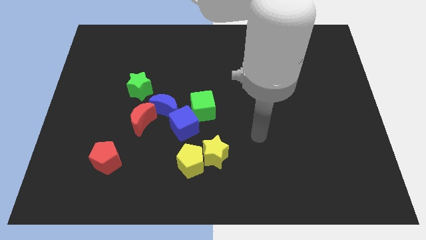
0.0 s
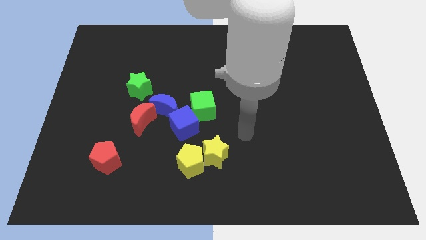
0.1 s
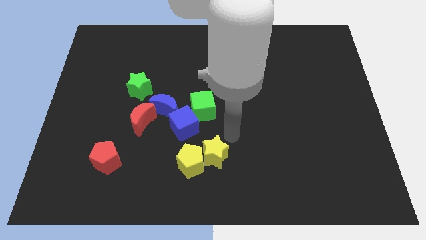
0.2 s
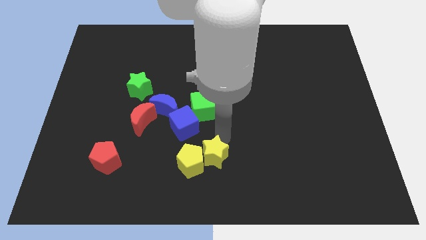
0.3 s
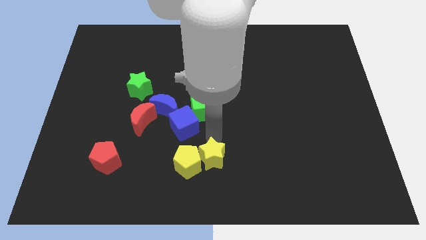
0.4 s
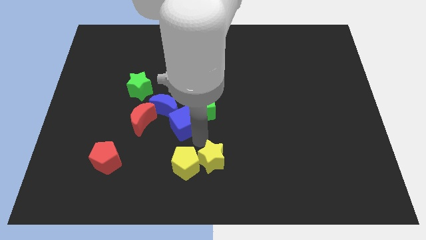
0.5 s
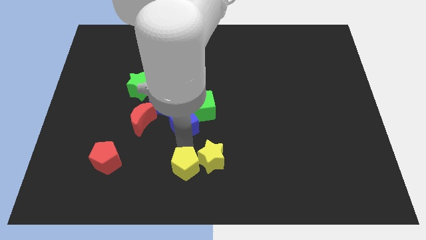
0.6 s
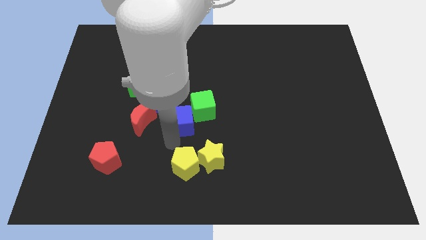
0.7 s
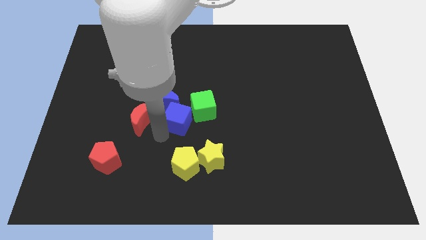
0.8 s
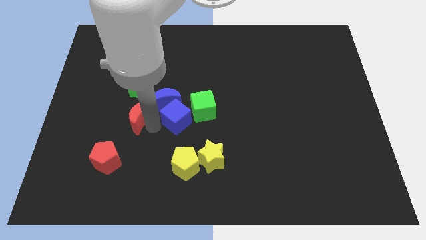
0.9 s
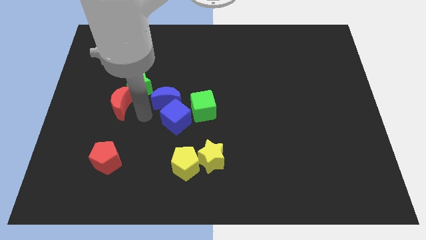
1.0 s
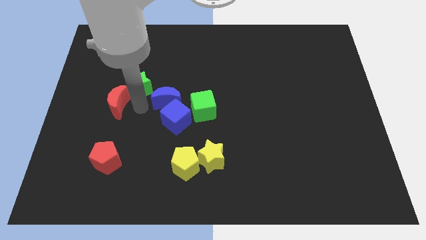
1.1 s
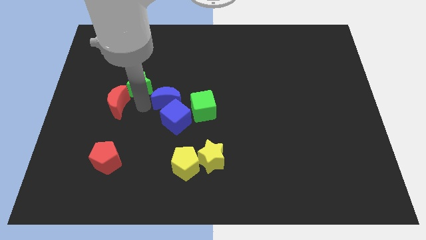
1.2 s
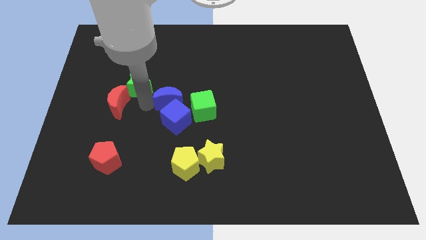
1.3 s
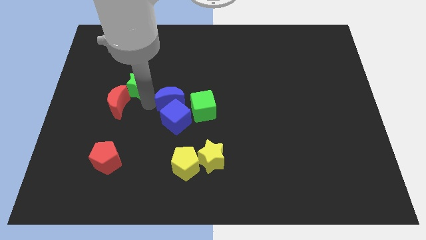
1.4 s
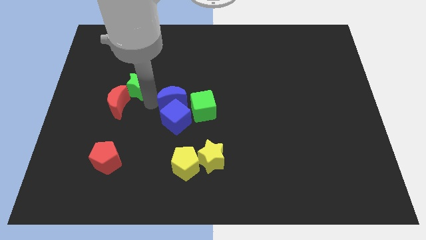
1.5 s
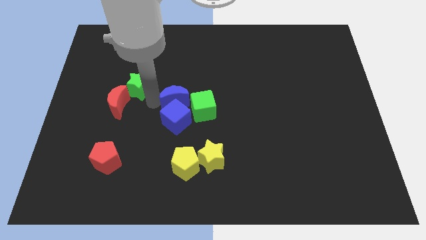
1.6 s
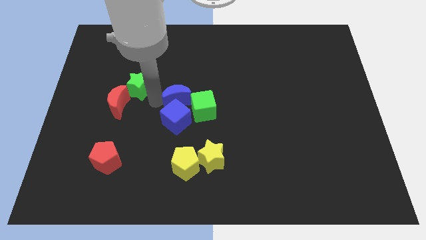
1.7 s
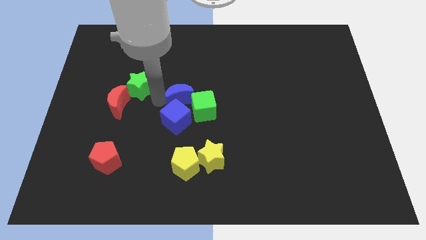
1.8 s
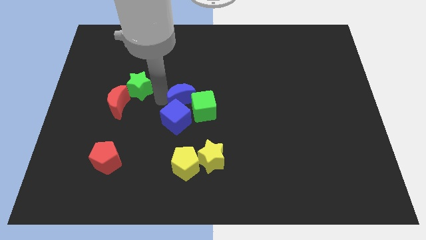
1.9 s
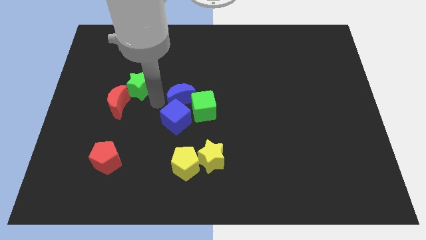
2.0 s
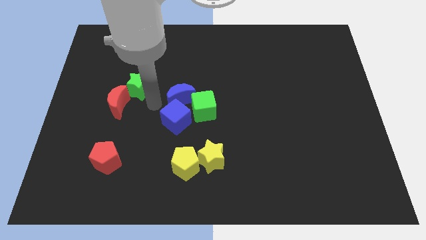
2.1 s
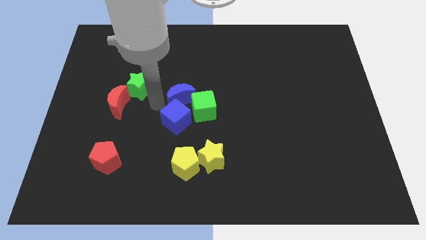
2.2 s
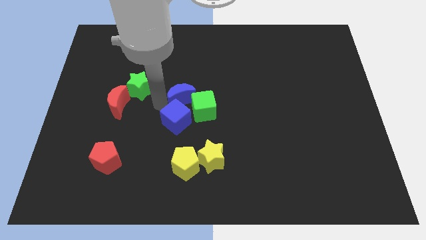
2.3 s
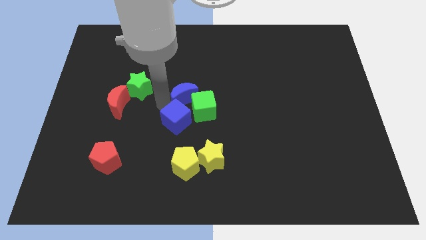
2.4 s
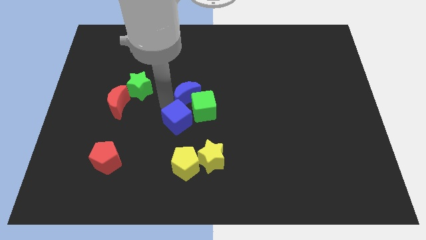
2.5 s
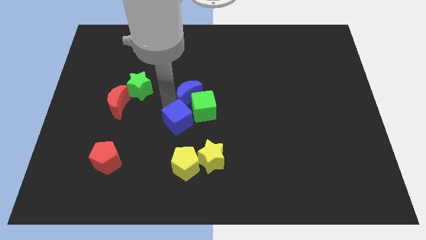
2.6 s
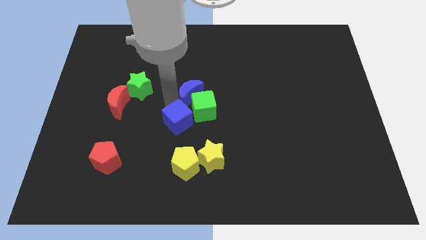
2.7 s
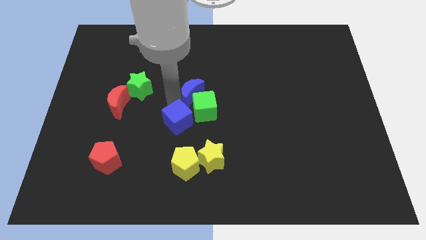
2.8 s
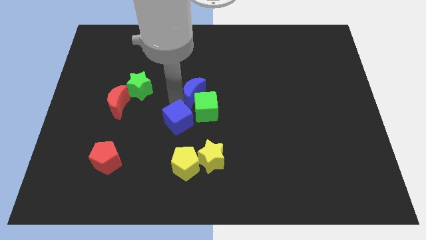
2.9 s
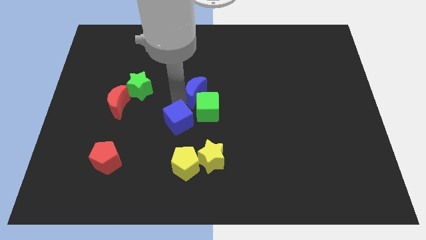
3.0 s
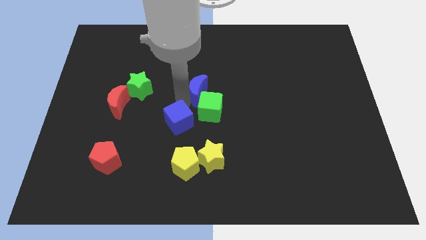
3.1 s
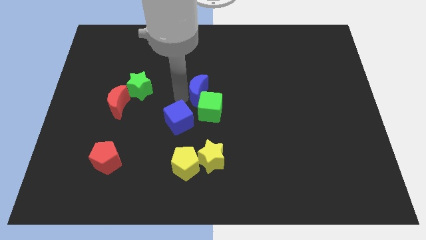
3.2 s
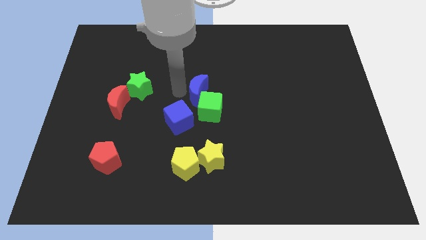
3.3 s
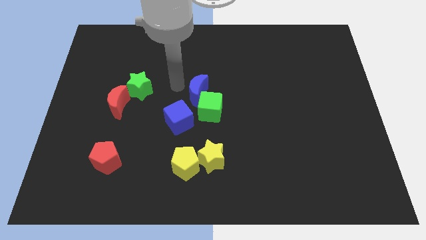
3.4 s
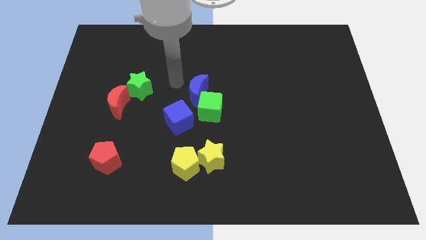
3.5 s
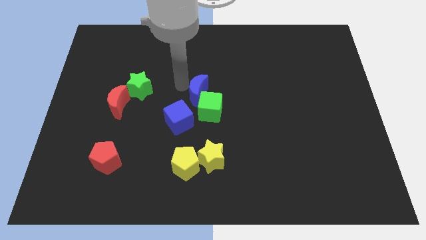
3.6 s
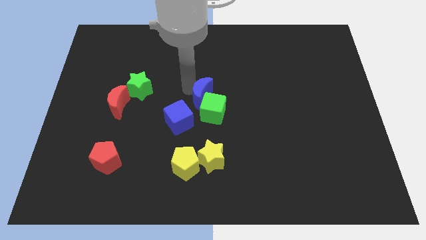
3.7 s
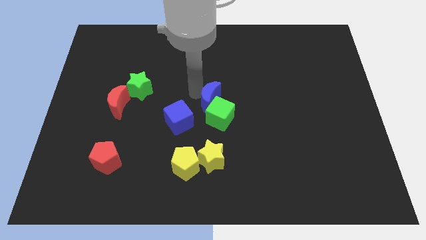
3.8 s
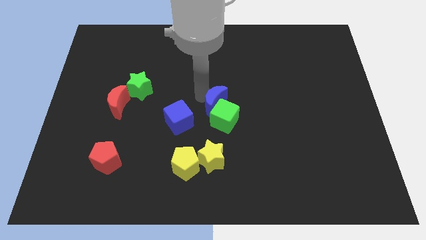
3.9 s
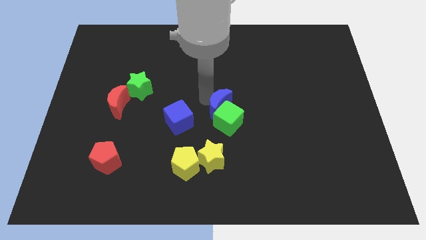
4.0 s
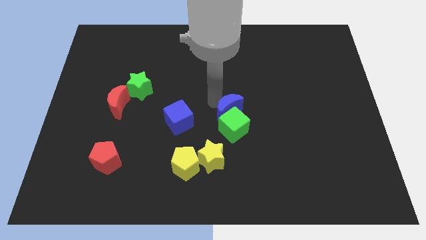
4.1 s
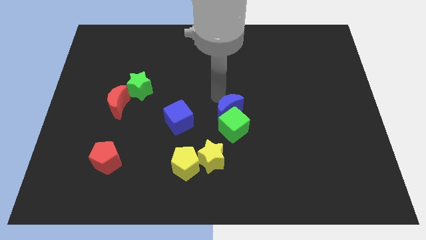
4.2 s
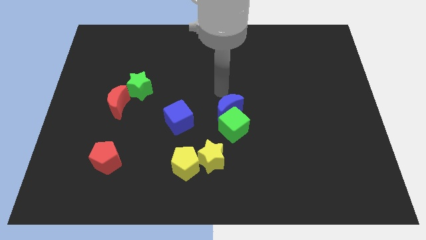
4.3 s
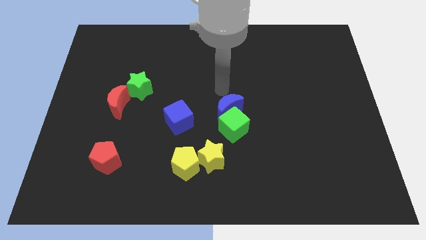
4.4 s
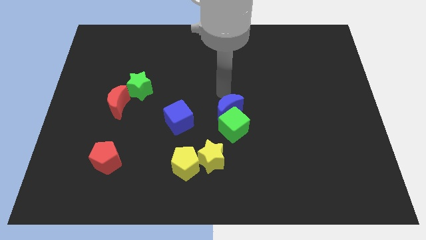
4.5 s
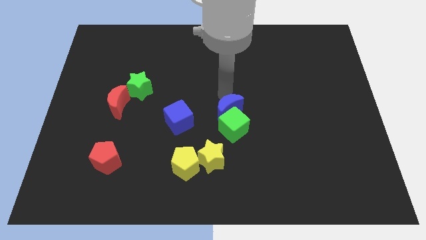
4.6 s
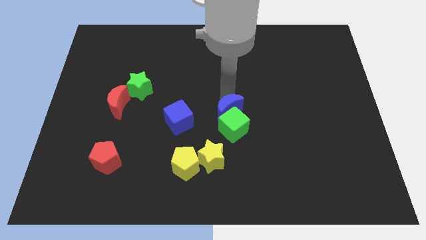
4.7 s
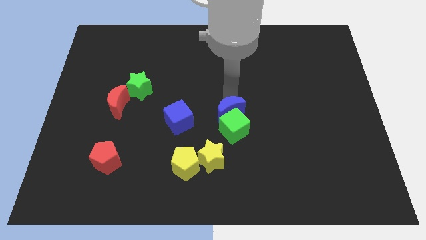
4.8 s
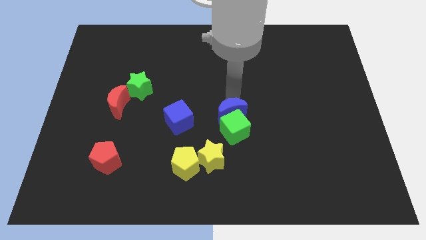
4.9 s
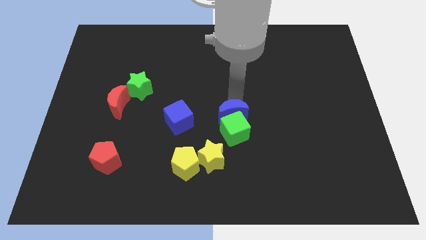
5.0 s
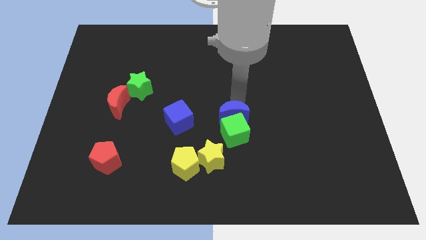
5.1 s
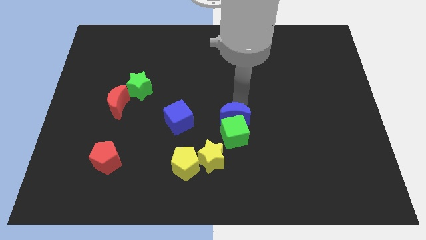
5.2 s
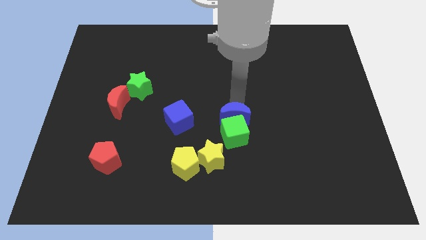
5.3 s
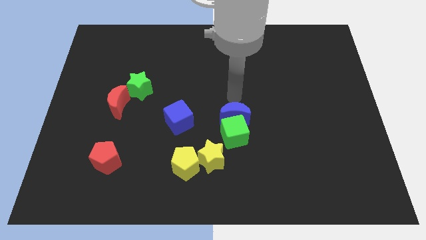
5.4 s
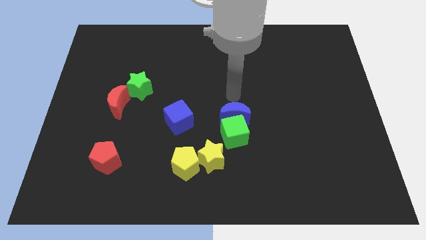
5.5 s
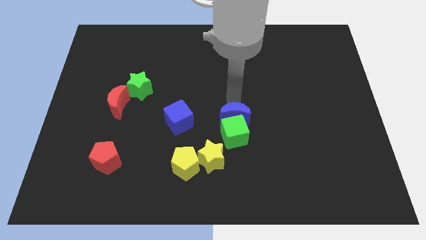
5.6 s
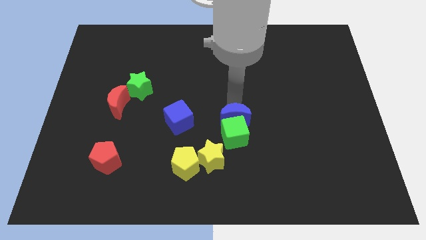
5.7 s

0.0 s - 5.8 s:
put the blue moon diagonally up and to the right of the yellow star

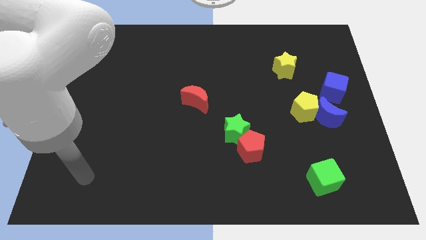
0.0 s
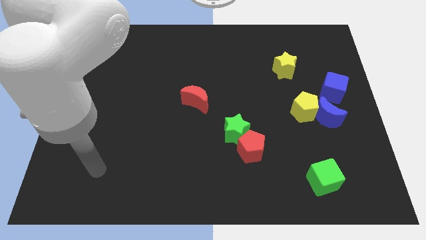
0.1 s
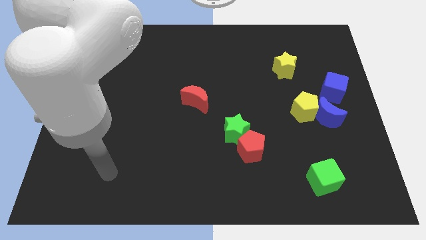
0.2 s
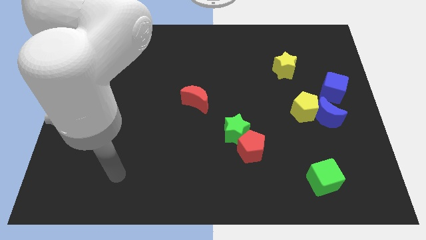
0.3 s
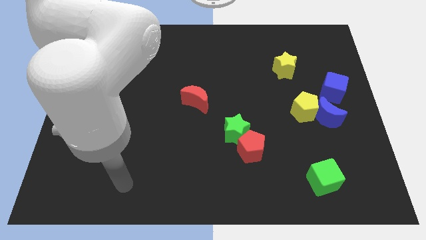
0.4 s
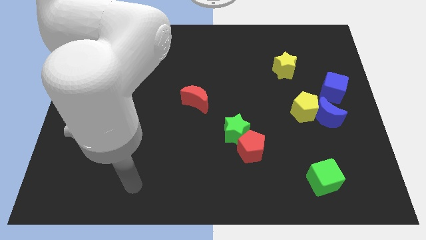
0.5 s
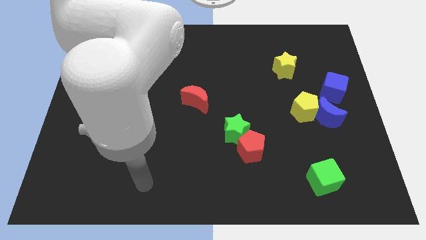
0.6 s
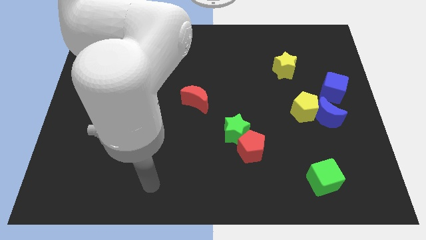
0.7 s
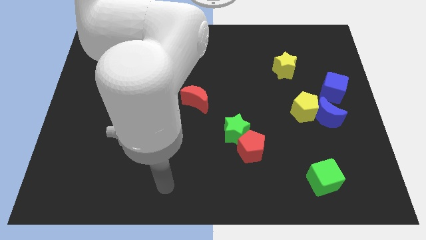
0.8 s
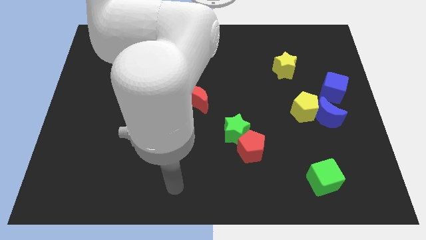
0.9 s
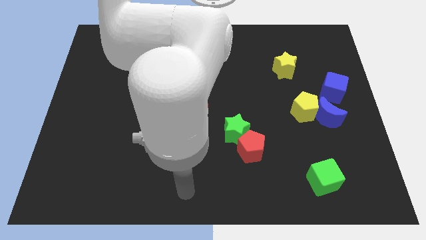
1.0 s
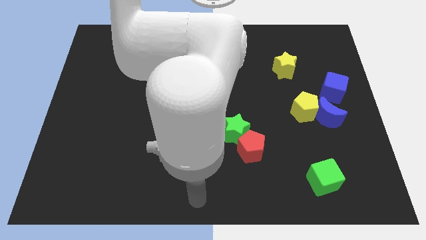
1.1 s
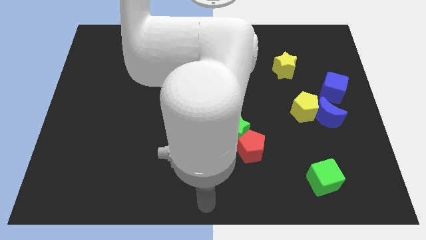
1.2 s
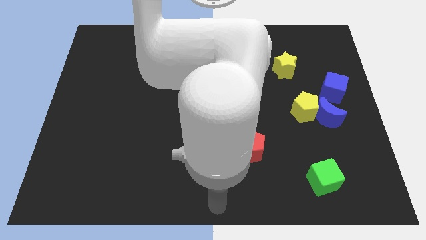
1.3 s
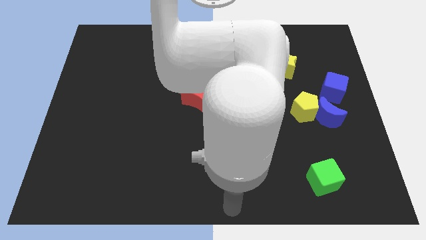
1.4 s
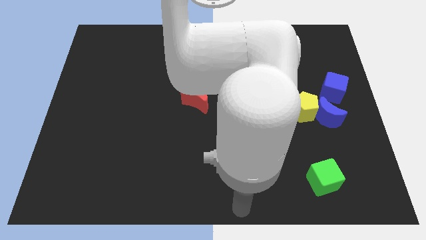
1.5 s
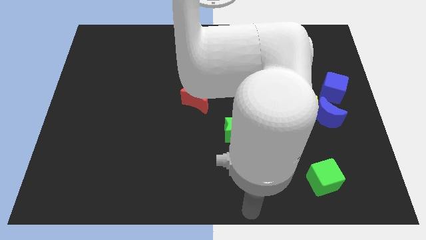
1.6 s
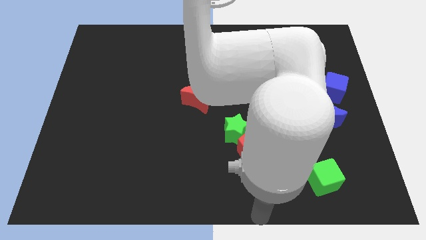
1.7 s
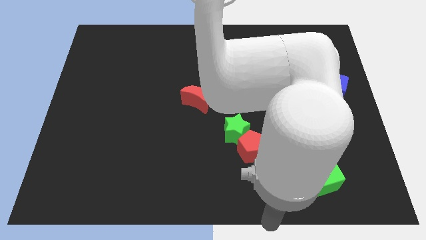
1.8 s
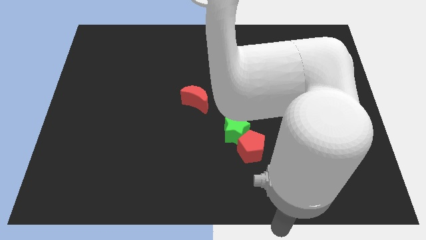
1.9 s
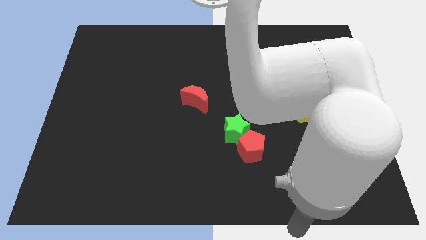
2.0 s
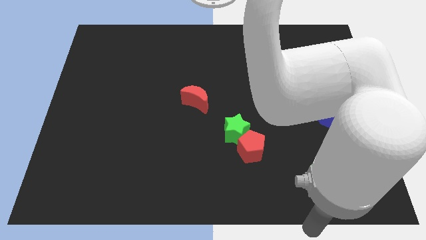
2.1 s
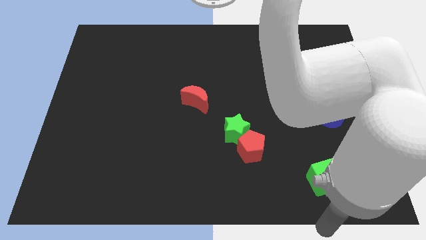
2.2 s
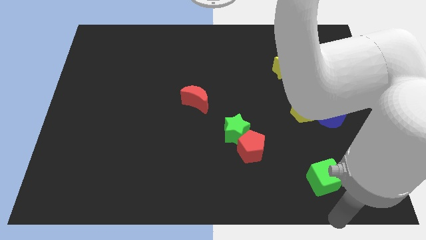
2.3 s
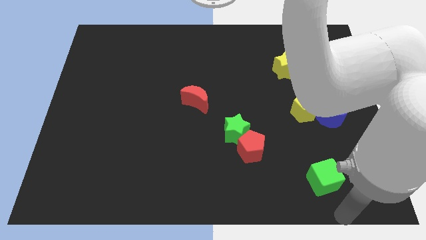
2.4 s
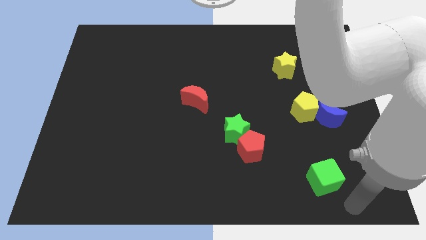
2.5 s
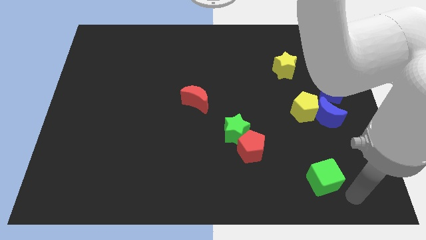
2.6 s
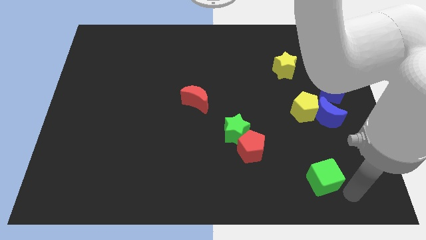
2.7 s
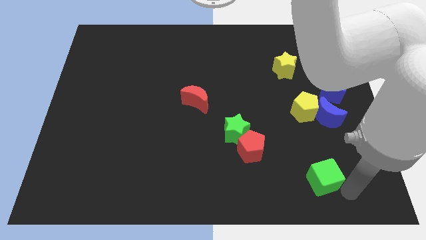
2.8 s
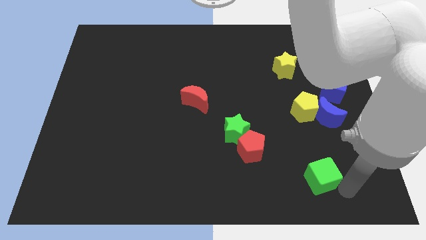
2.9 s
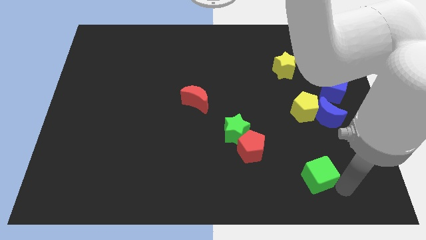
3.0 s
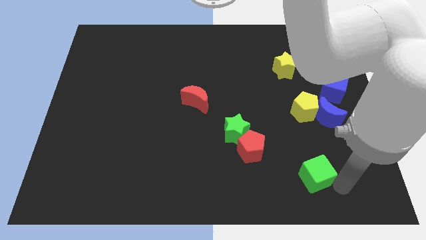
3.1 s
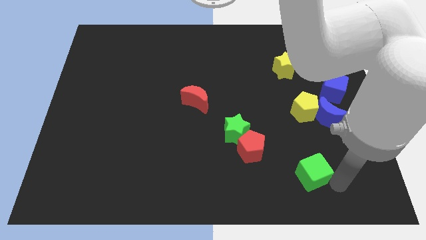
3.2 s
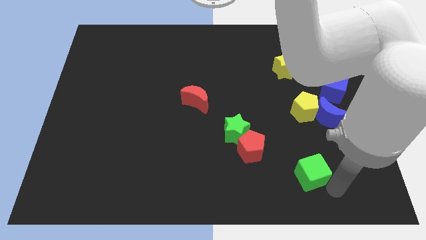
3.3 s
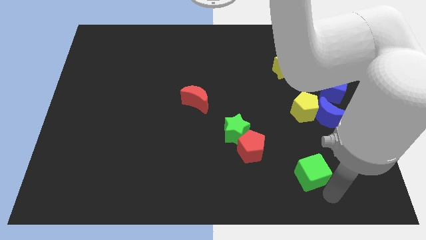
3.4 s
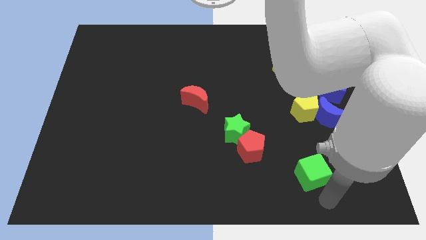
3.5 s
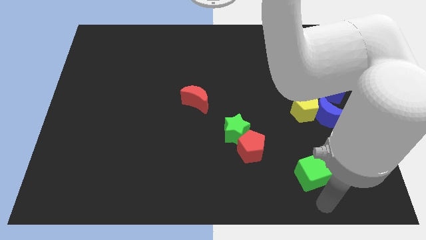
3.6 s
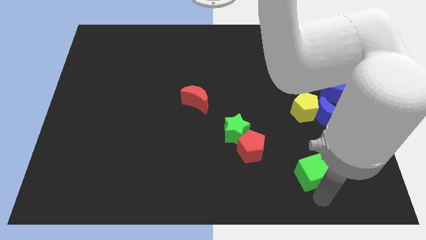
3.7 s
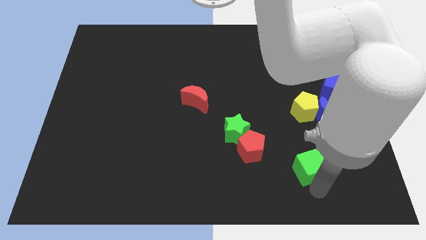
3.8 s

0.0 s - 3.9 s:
move the green cube to the right of the red pentagon
